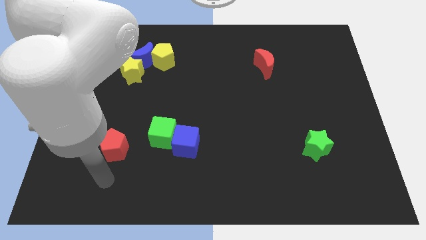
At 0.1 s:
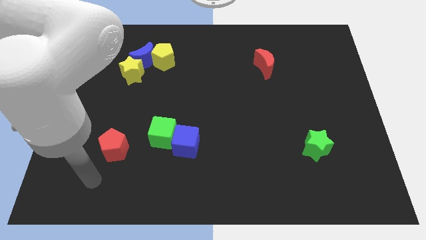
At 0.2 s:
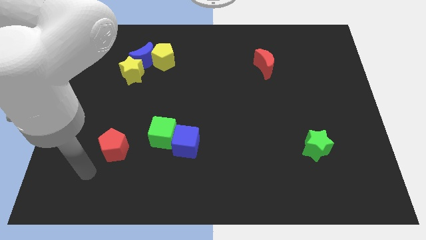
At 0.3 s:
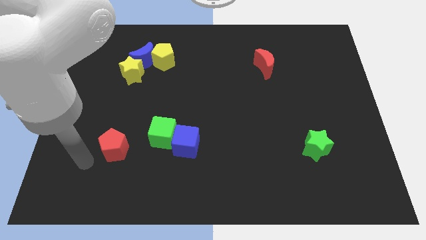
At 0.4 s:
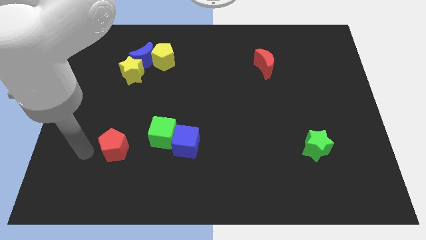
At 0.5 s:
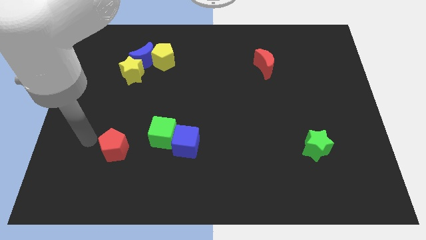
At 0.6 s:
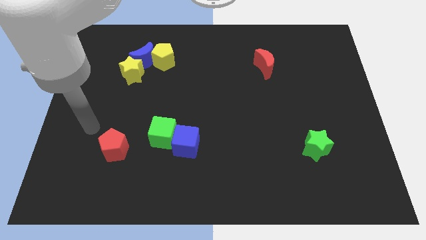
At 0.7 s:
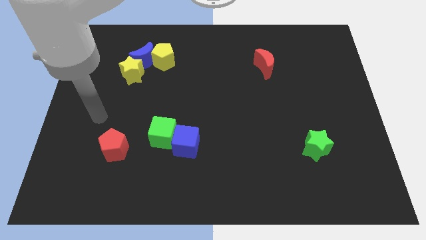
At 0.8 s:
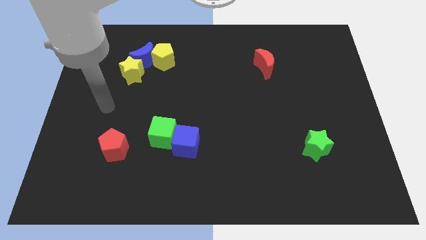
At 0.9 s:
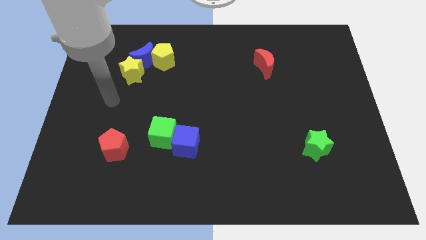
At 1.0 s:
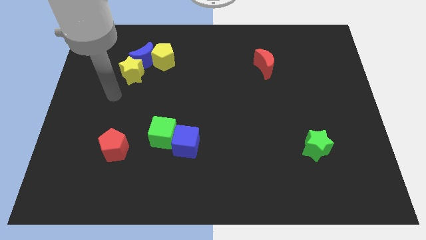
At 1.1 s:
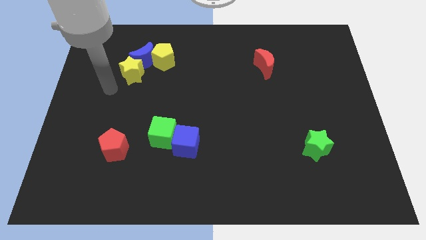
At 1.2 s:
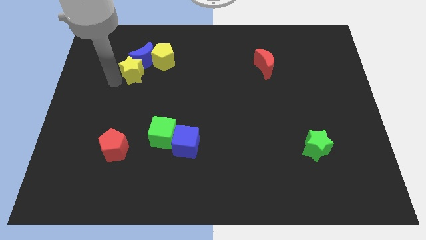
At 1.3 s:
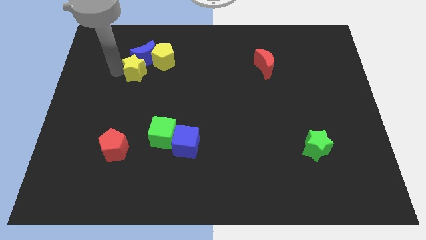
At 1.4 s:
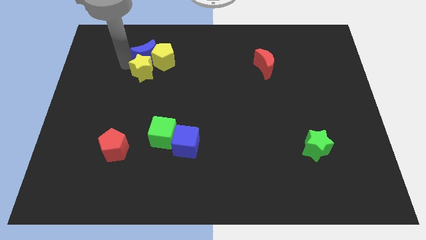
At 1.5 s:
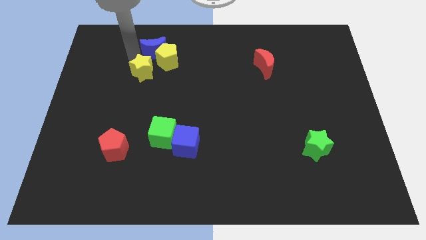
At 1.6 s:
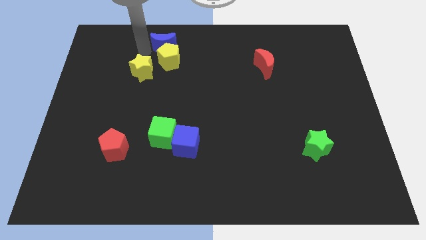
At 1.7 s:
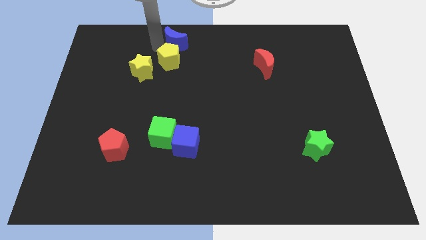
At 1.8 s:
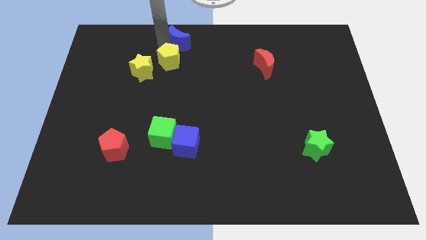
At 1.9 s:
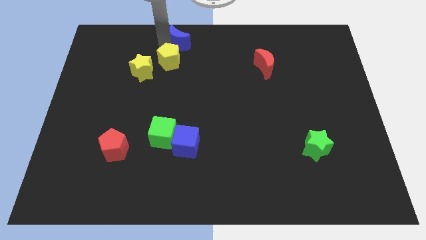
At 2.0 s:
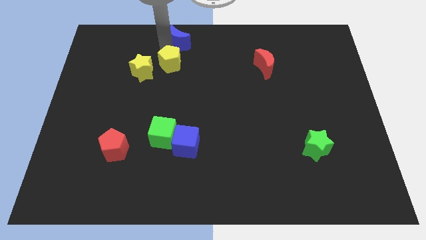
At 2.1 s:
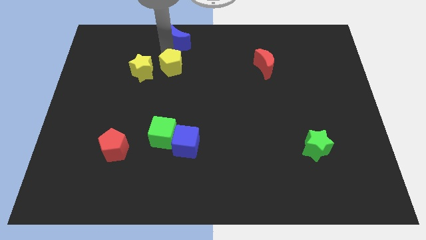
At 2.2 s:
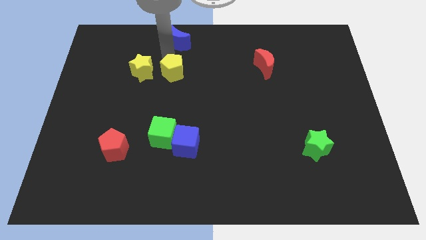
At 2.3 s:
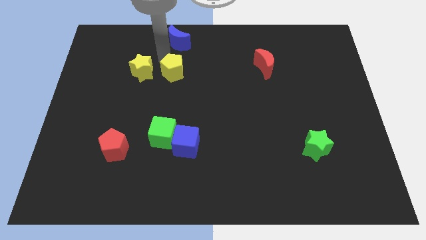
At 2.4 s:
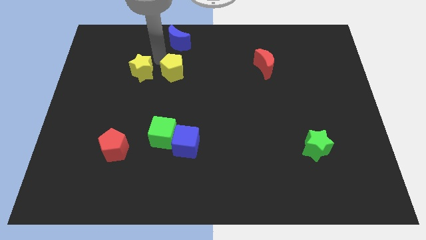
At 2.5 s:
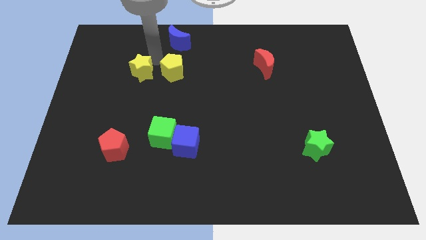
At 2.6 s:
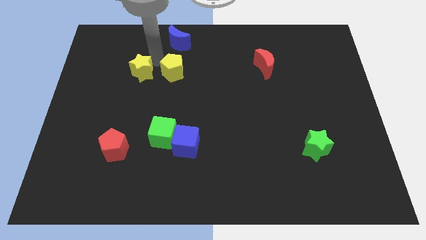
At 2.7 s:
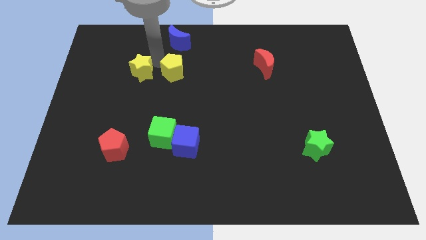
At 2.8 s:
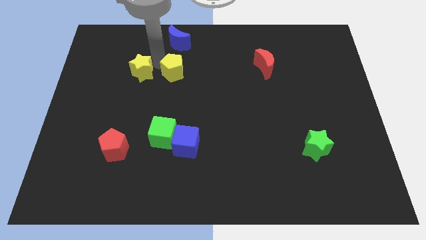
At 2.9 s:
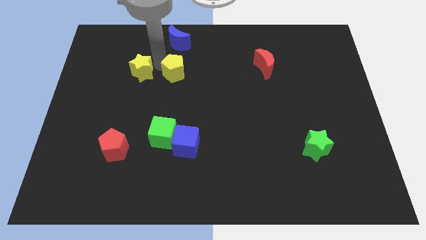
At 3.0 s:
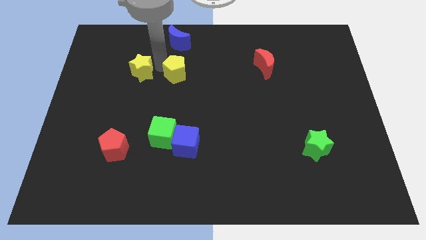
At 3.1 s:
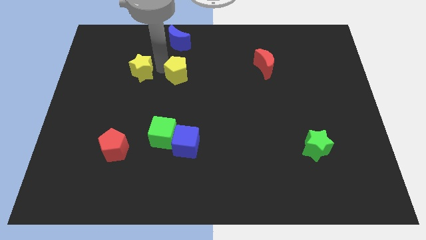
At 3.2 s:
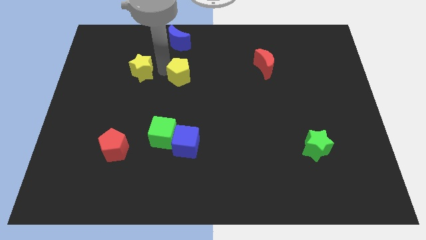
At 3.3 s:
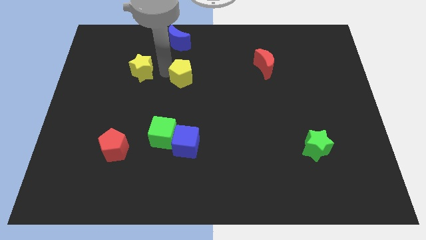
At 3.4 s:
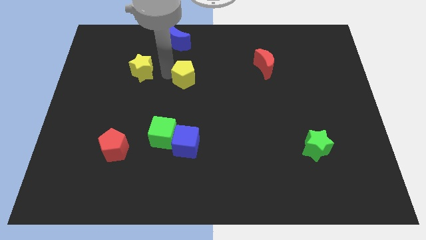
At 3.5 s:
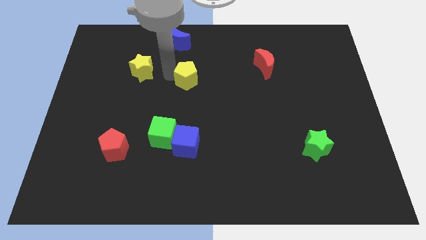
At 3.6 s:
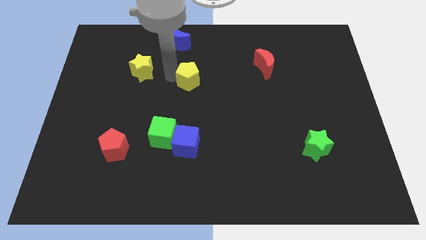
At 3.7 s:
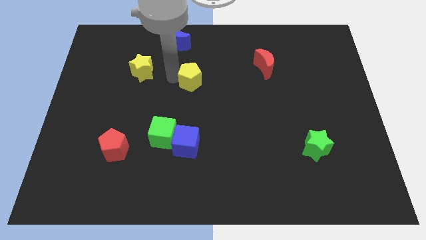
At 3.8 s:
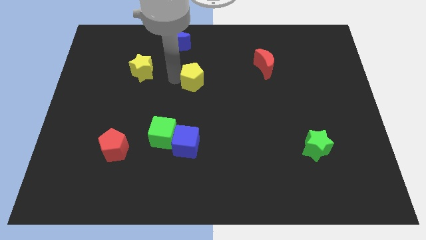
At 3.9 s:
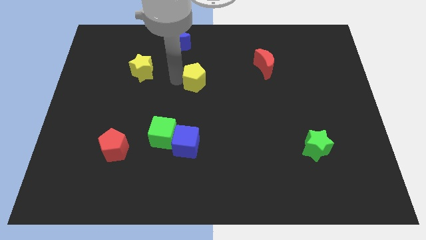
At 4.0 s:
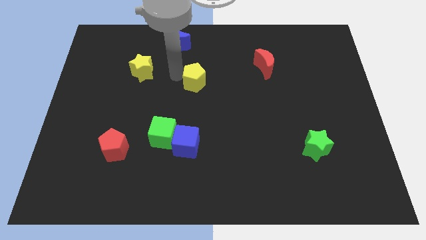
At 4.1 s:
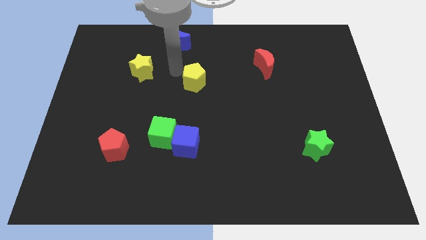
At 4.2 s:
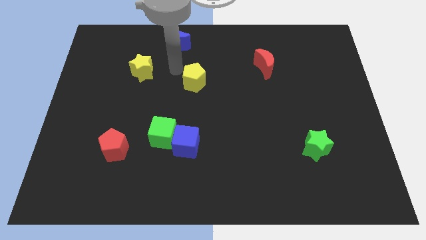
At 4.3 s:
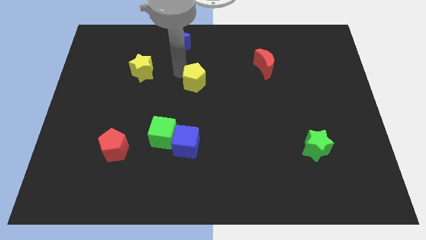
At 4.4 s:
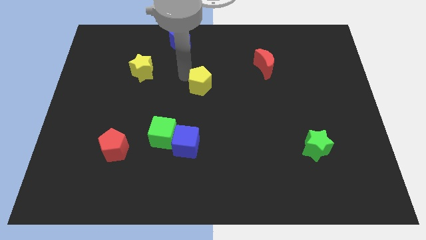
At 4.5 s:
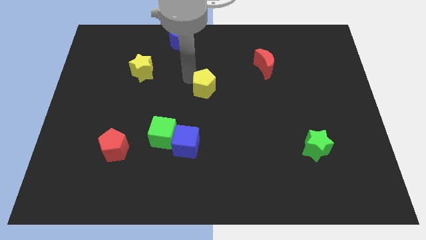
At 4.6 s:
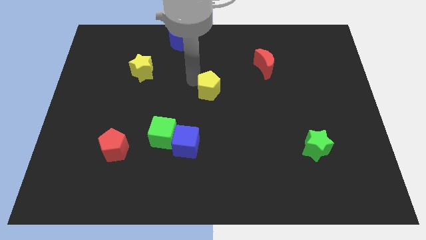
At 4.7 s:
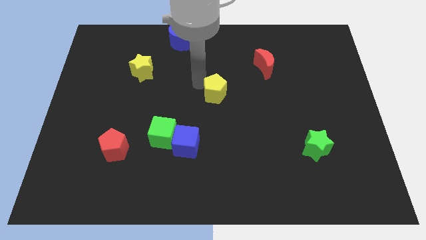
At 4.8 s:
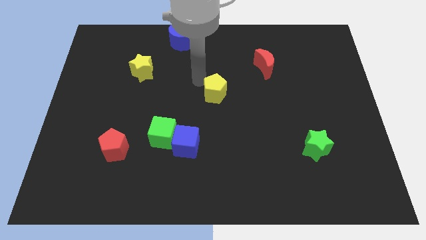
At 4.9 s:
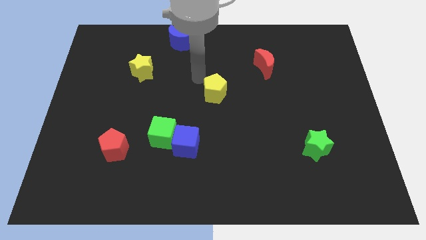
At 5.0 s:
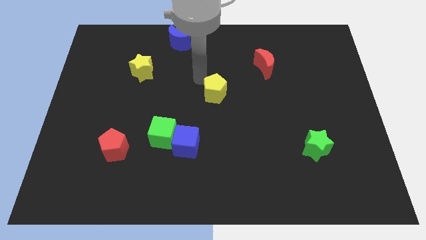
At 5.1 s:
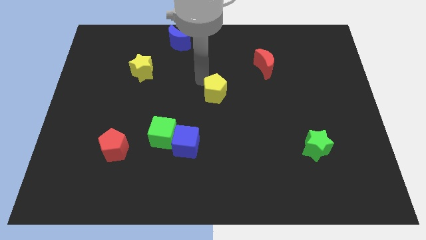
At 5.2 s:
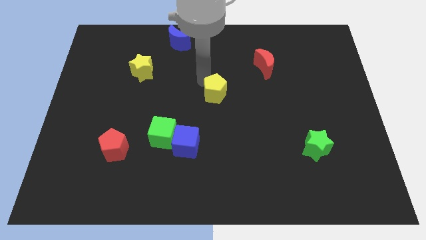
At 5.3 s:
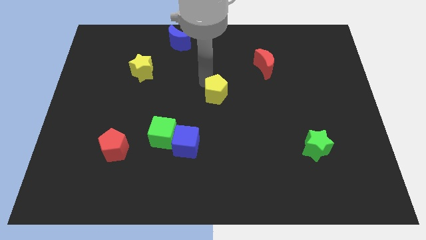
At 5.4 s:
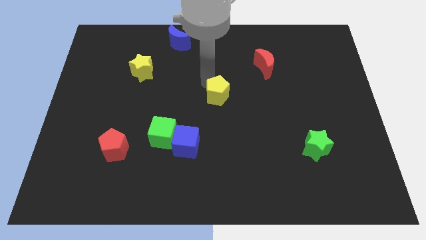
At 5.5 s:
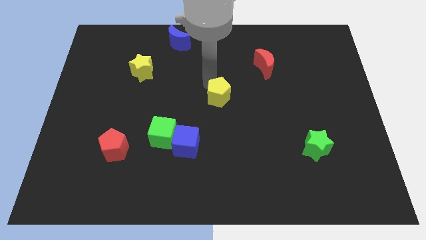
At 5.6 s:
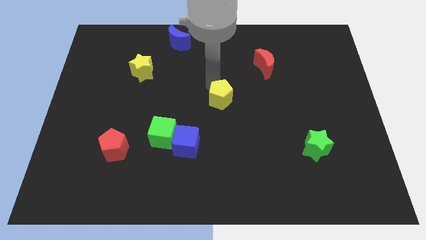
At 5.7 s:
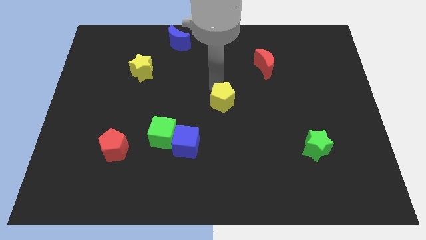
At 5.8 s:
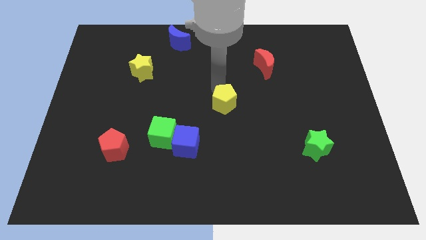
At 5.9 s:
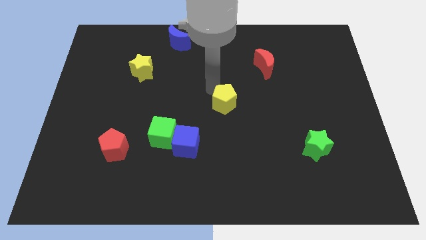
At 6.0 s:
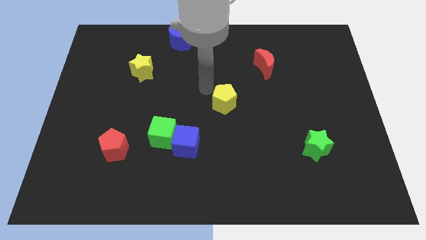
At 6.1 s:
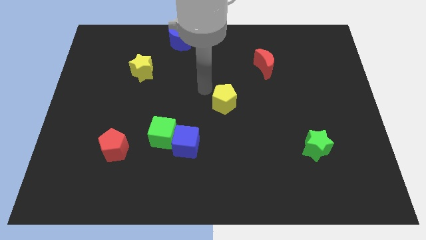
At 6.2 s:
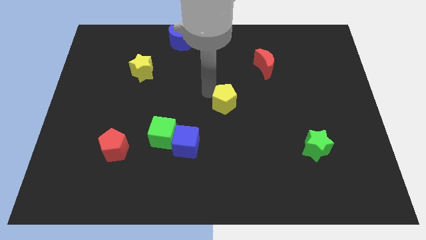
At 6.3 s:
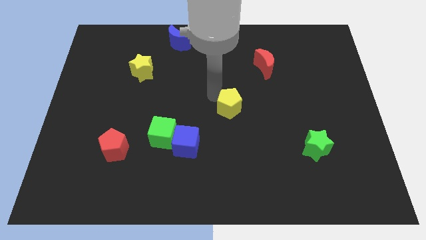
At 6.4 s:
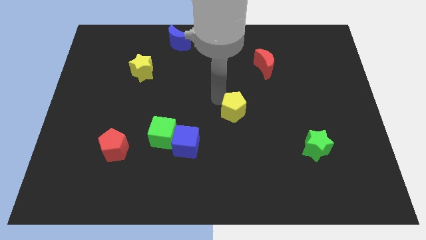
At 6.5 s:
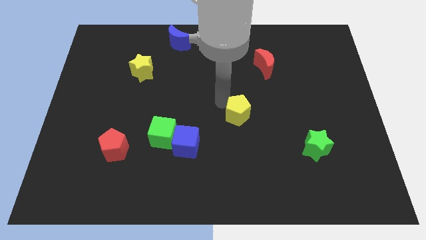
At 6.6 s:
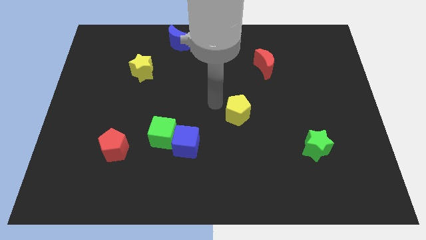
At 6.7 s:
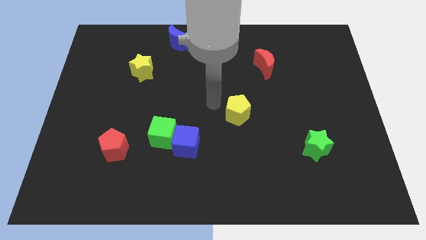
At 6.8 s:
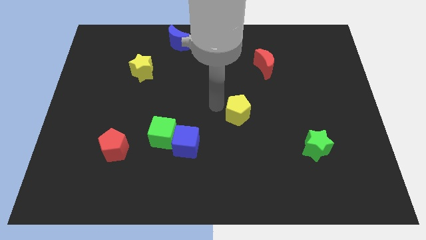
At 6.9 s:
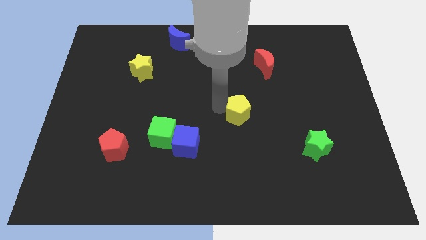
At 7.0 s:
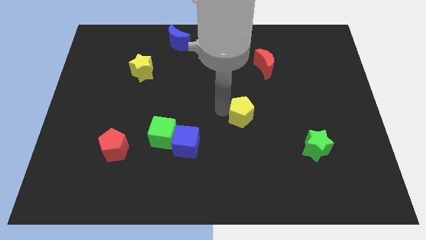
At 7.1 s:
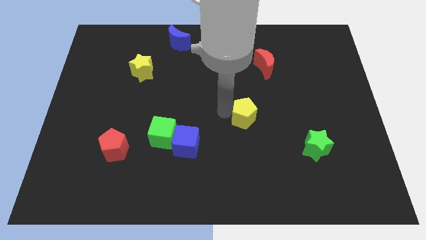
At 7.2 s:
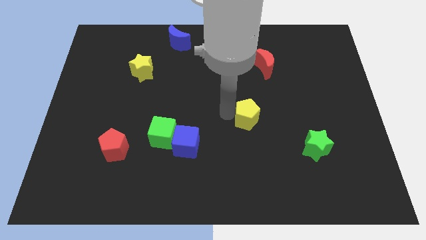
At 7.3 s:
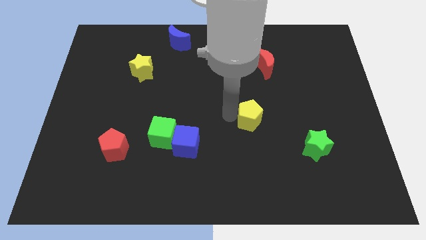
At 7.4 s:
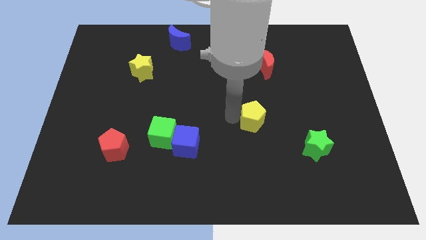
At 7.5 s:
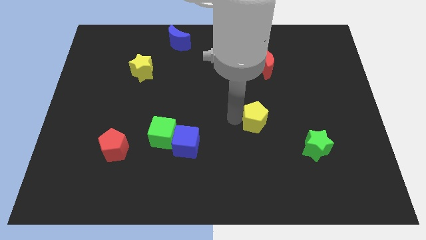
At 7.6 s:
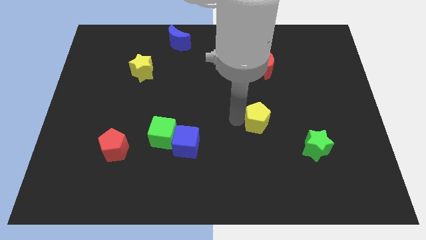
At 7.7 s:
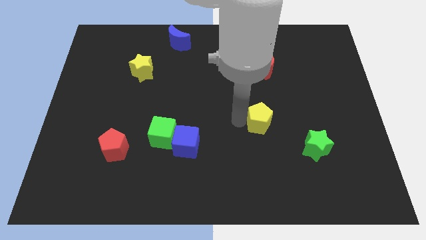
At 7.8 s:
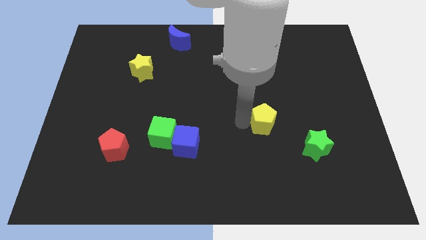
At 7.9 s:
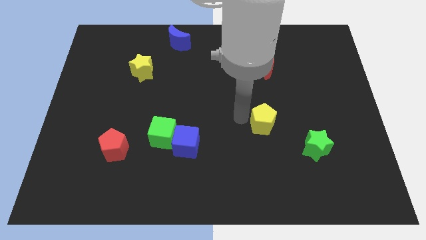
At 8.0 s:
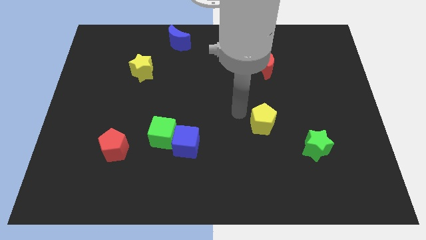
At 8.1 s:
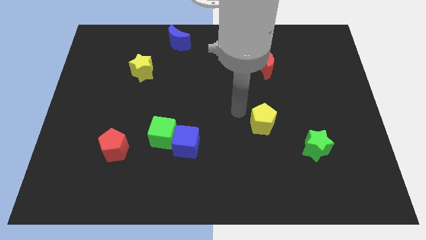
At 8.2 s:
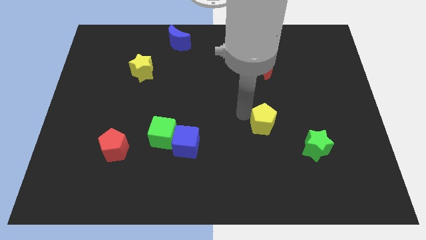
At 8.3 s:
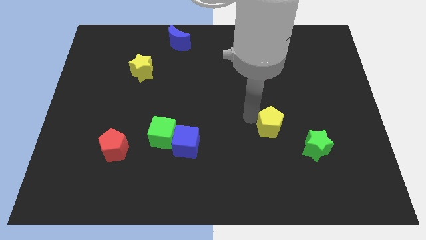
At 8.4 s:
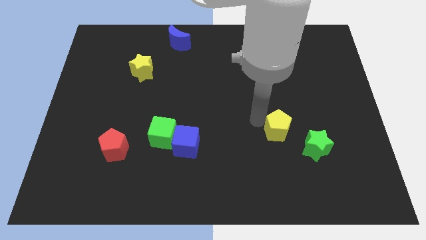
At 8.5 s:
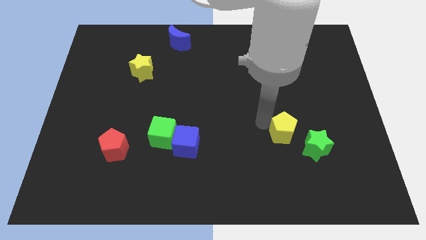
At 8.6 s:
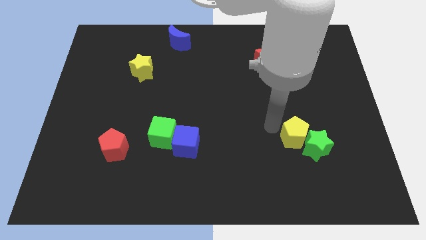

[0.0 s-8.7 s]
slide the yellow pentagon towards the green star
